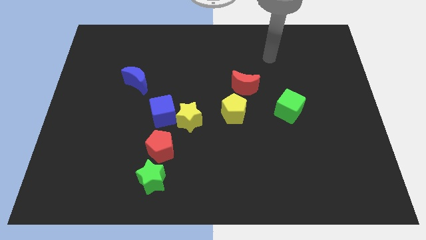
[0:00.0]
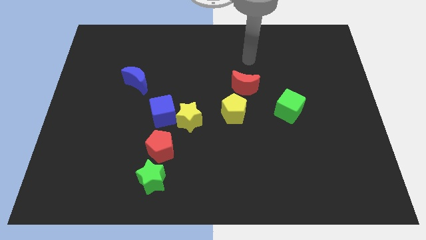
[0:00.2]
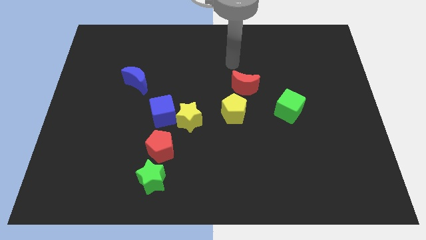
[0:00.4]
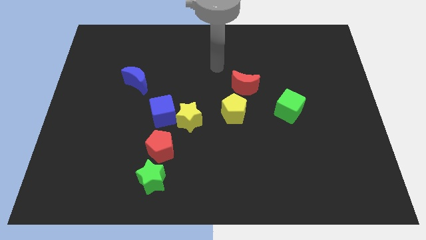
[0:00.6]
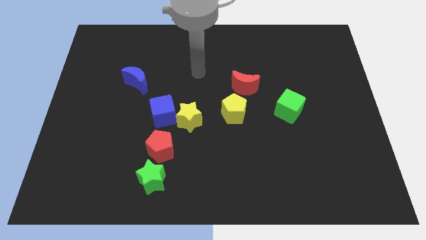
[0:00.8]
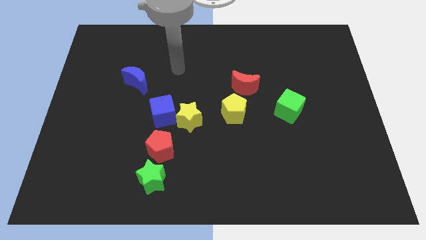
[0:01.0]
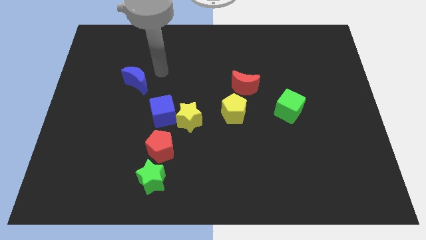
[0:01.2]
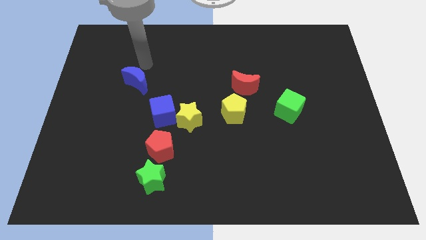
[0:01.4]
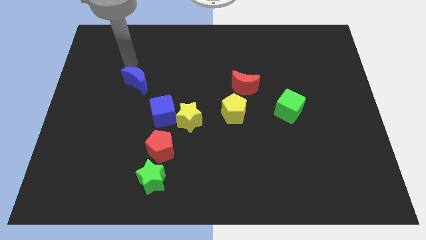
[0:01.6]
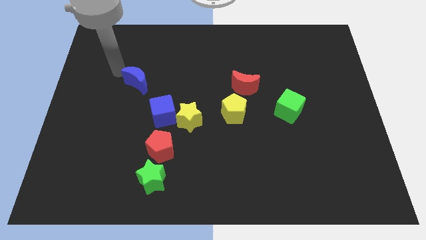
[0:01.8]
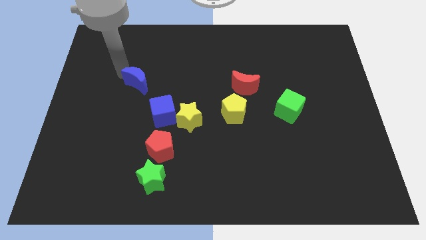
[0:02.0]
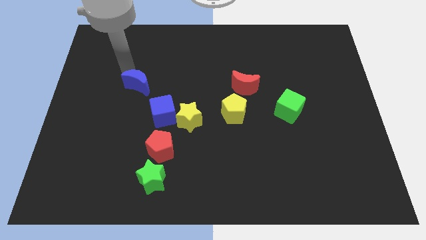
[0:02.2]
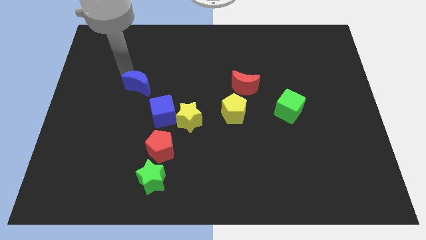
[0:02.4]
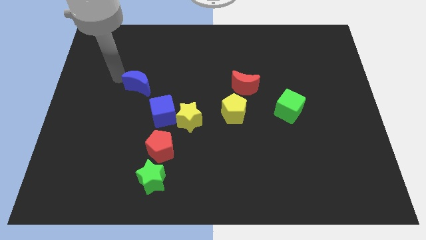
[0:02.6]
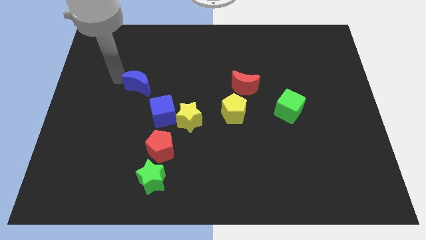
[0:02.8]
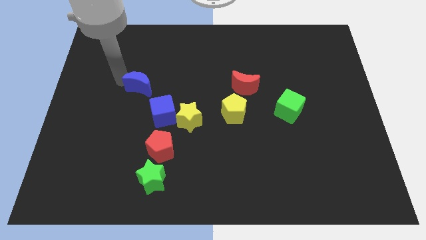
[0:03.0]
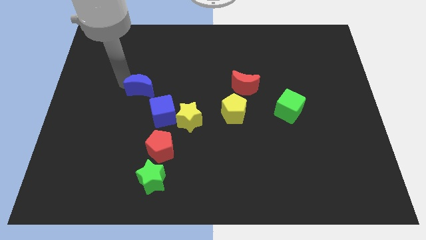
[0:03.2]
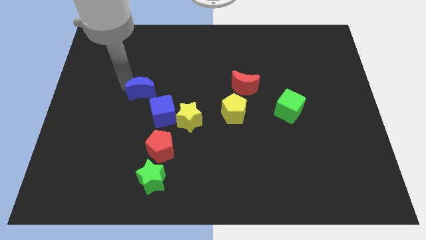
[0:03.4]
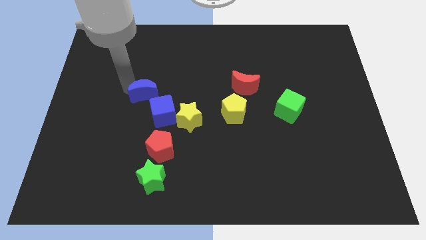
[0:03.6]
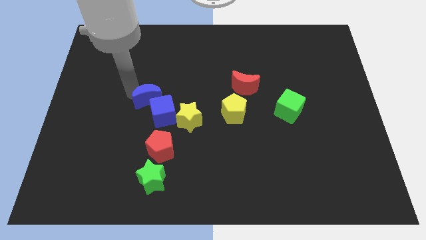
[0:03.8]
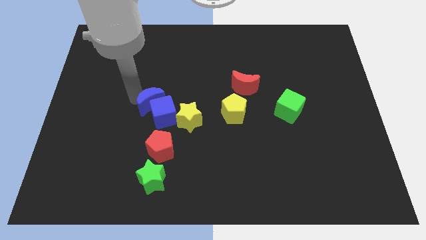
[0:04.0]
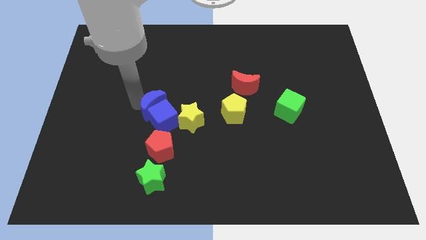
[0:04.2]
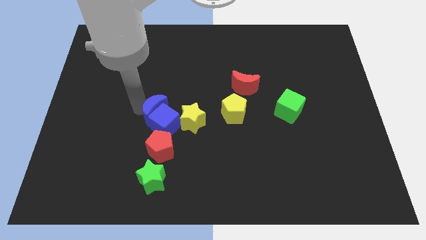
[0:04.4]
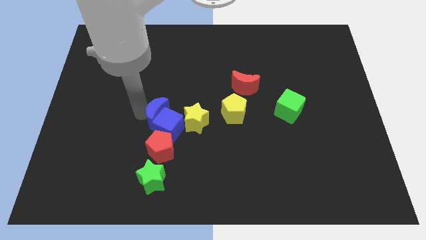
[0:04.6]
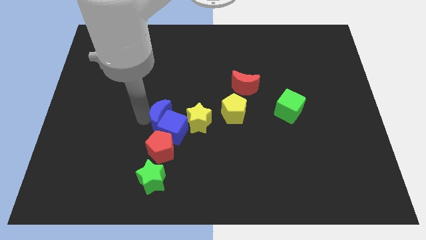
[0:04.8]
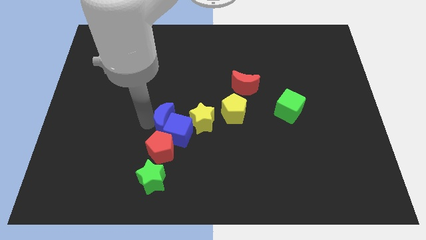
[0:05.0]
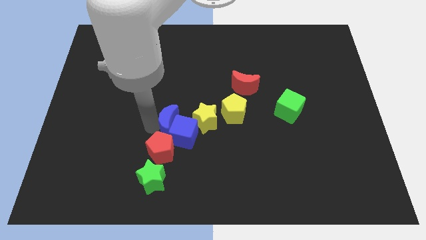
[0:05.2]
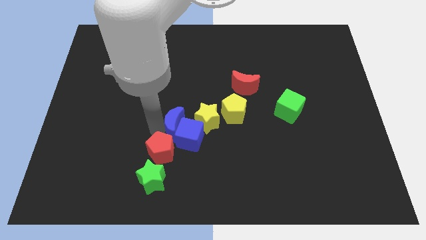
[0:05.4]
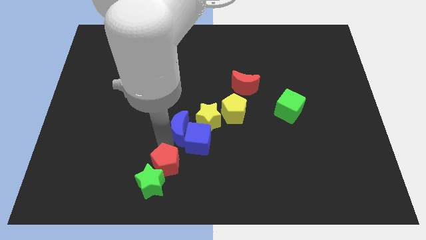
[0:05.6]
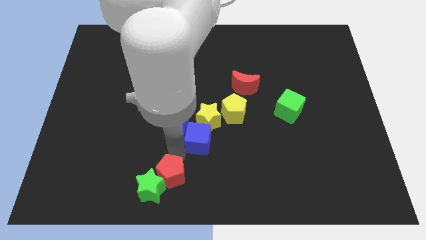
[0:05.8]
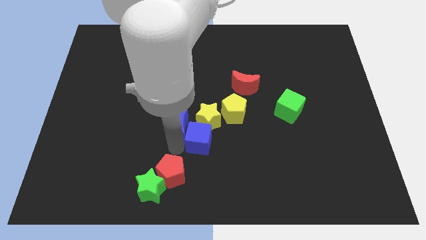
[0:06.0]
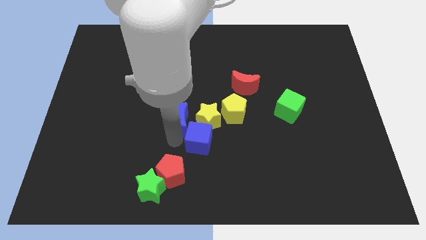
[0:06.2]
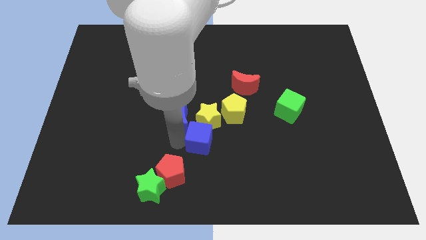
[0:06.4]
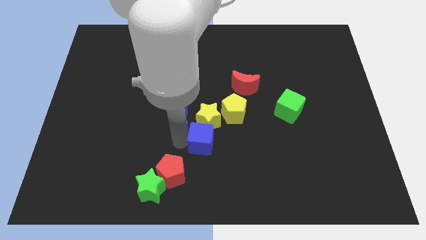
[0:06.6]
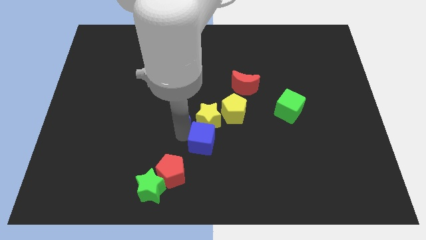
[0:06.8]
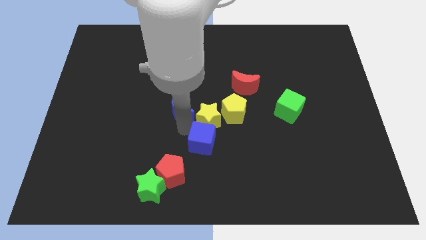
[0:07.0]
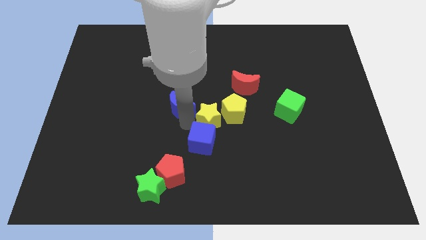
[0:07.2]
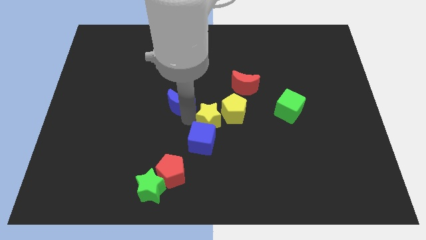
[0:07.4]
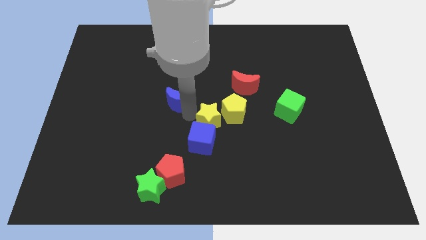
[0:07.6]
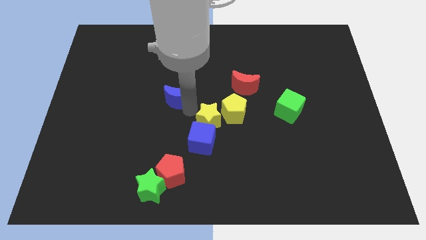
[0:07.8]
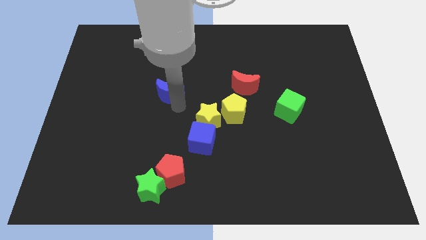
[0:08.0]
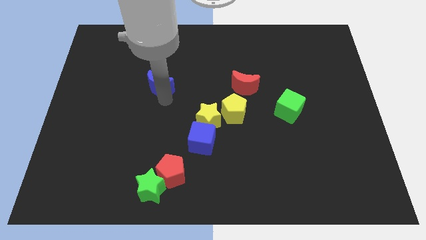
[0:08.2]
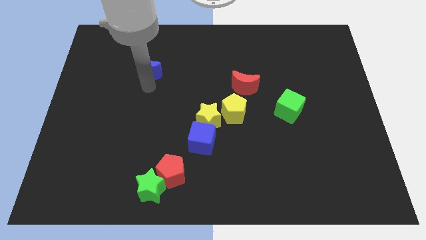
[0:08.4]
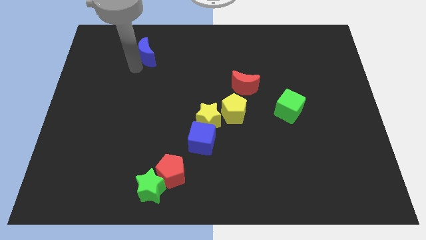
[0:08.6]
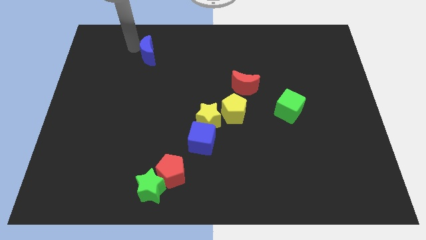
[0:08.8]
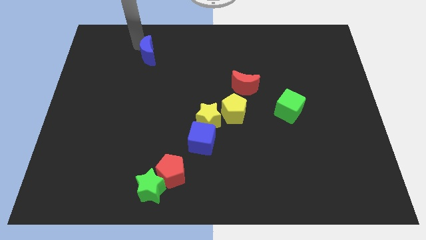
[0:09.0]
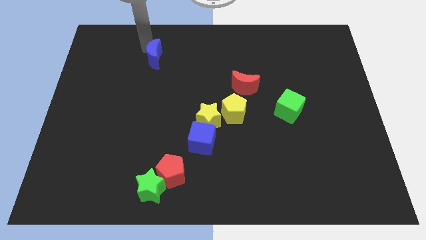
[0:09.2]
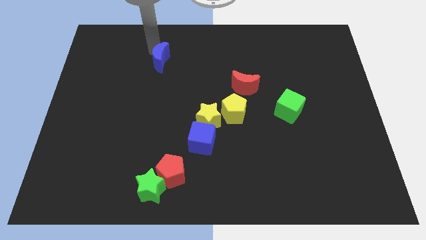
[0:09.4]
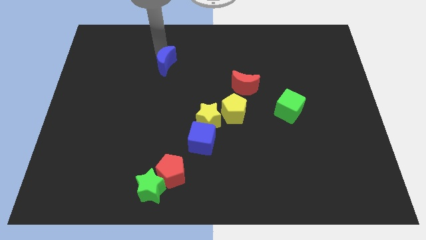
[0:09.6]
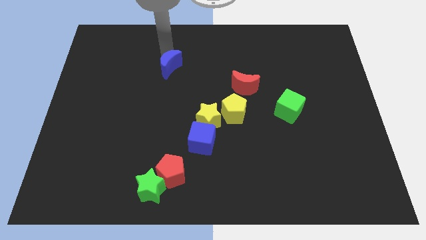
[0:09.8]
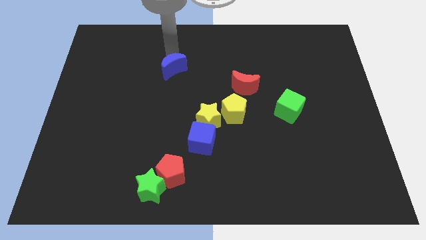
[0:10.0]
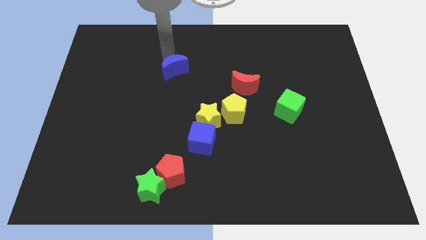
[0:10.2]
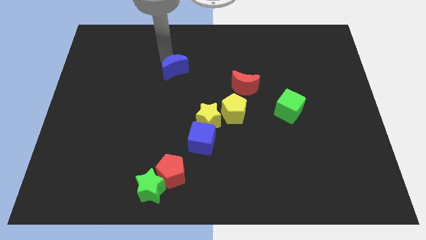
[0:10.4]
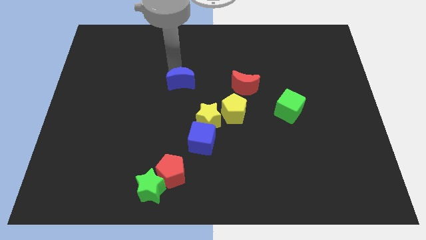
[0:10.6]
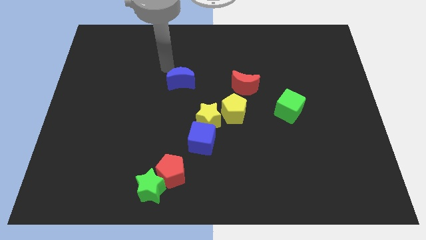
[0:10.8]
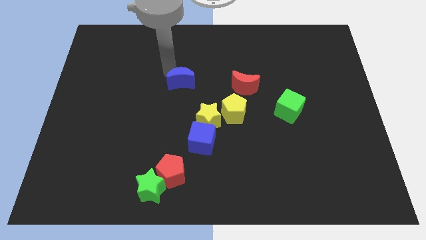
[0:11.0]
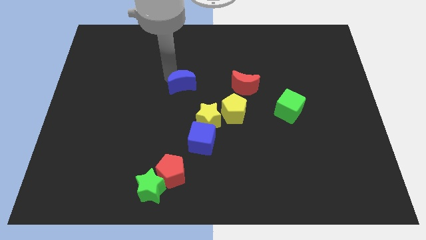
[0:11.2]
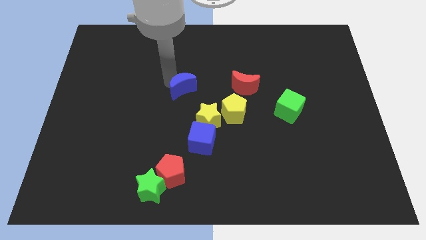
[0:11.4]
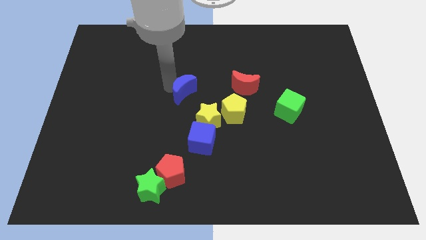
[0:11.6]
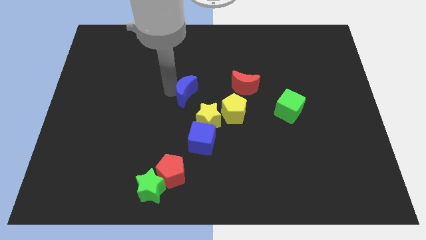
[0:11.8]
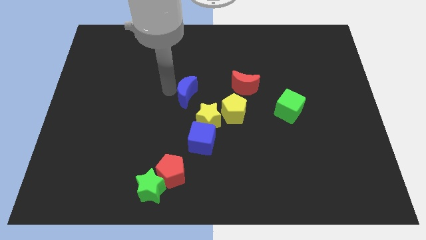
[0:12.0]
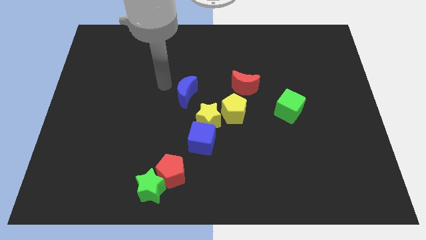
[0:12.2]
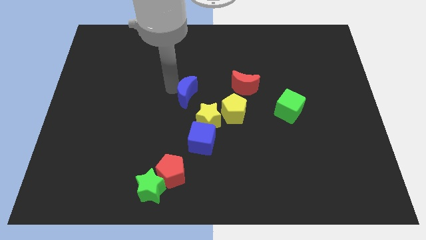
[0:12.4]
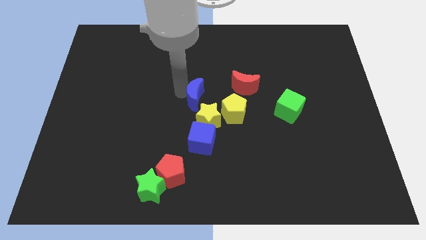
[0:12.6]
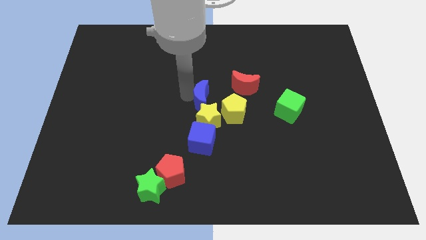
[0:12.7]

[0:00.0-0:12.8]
slide the blue moon to the bottom left side of the red moon

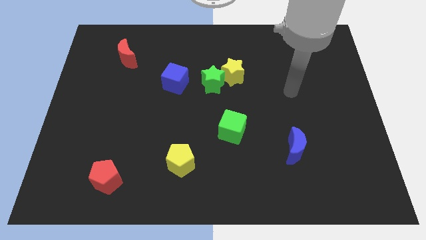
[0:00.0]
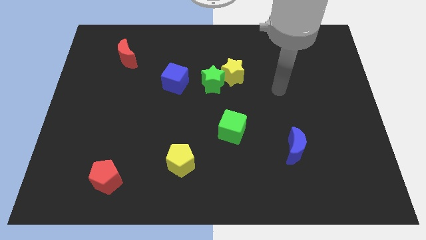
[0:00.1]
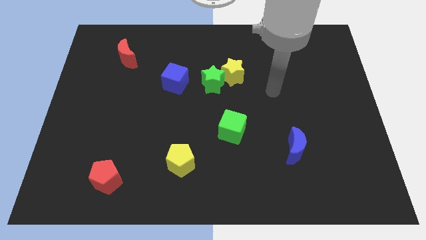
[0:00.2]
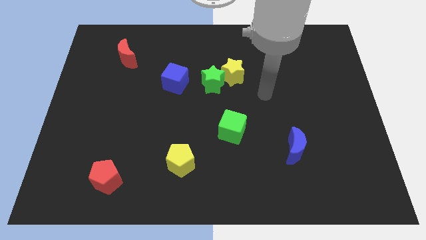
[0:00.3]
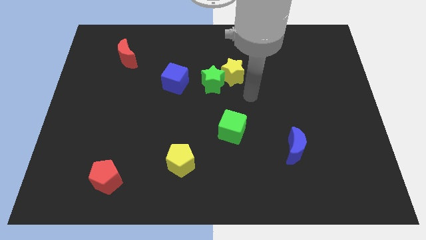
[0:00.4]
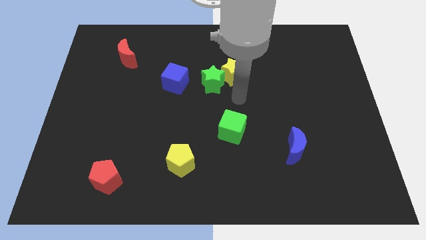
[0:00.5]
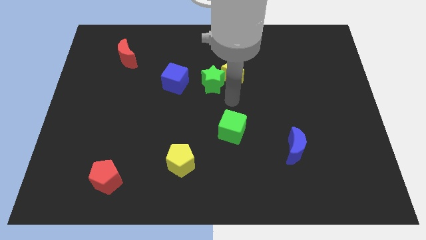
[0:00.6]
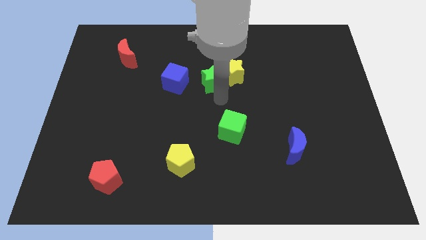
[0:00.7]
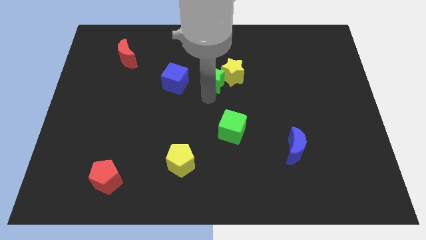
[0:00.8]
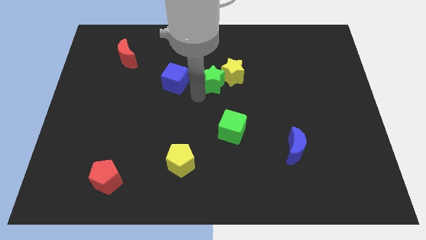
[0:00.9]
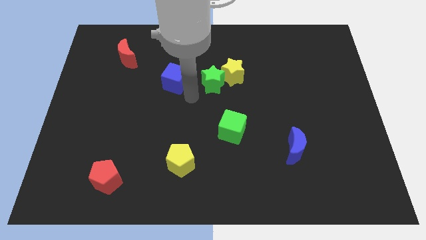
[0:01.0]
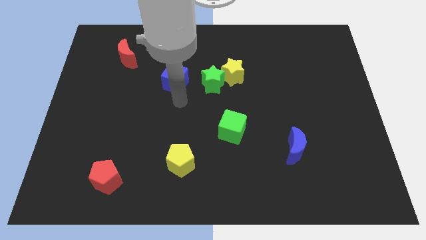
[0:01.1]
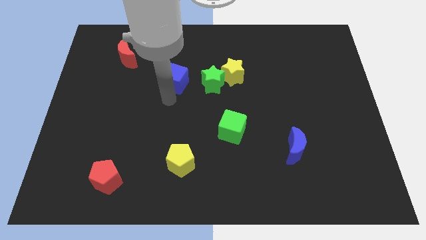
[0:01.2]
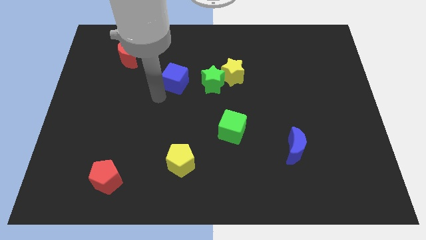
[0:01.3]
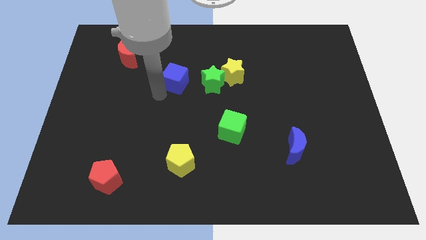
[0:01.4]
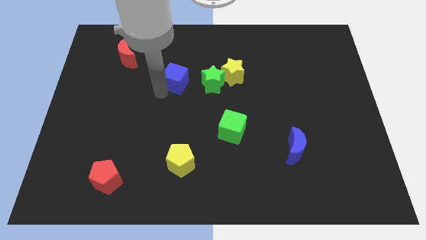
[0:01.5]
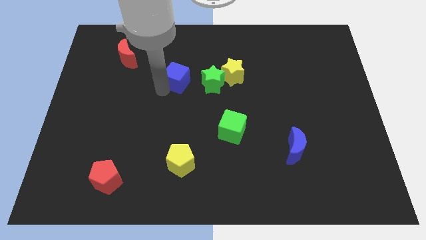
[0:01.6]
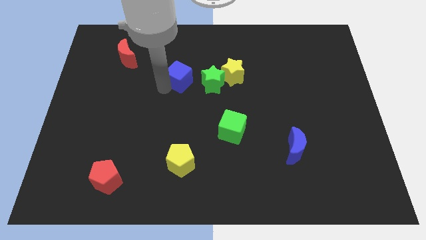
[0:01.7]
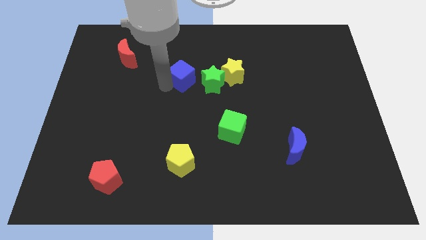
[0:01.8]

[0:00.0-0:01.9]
move the blue cube diagonally up and to the left of the green star
